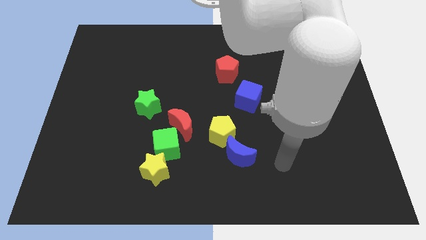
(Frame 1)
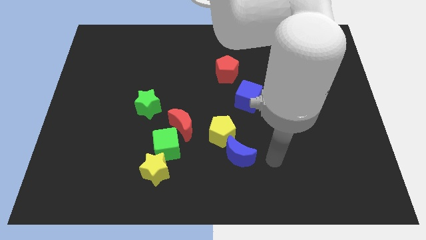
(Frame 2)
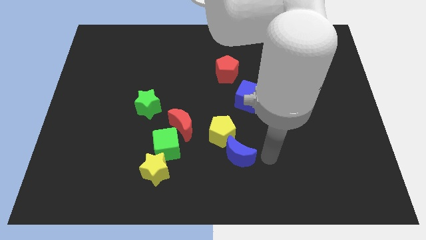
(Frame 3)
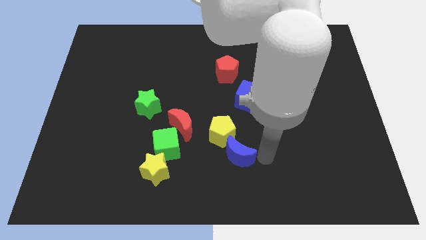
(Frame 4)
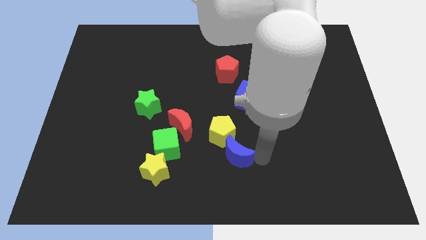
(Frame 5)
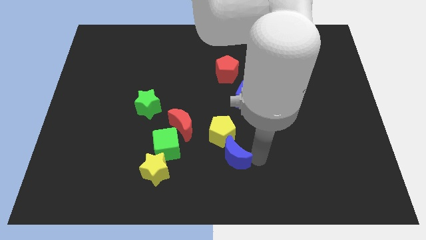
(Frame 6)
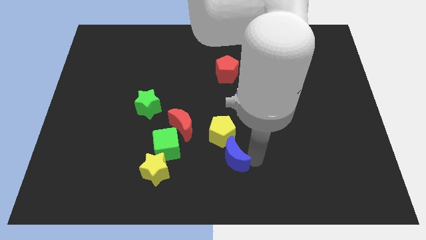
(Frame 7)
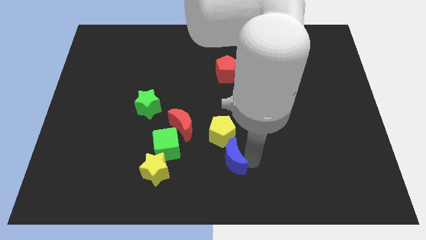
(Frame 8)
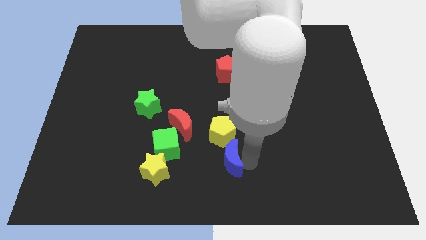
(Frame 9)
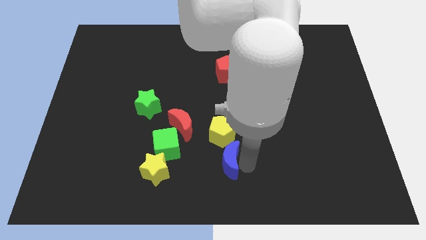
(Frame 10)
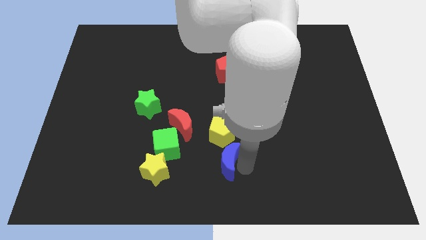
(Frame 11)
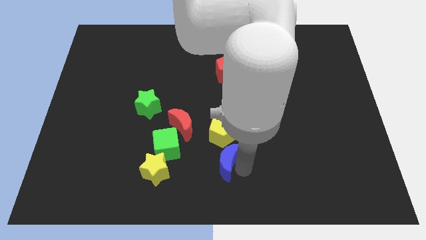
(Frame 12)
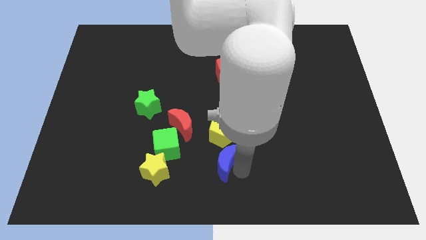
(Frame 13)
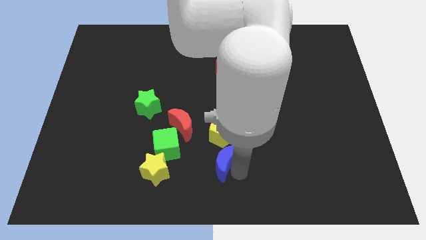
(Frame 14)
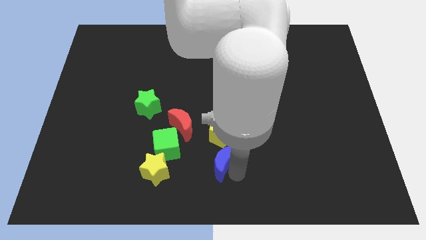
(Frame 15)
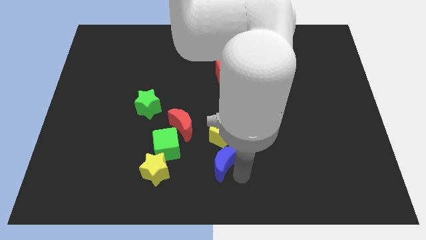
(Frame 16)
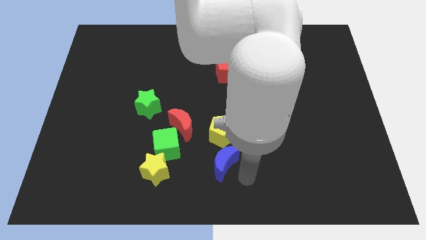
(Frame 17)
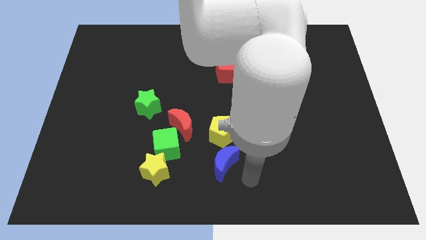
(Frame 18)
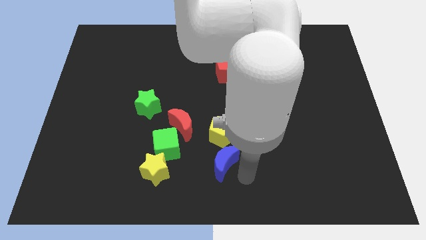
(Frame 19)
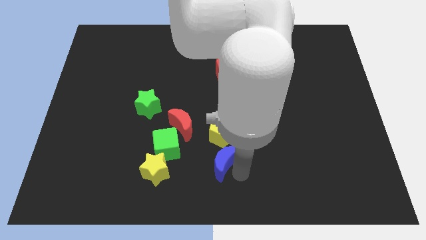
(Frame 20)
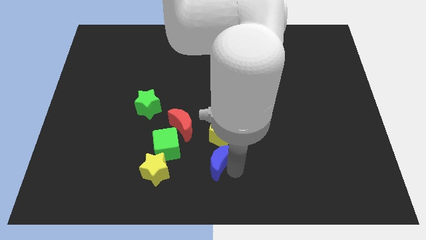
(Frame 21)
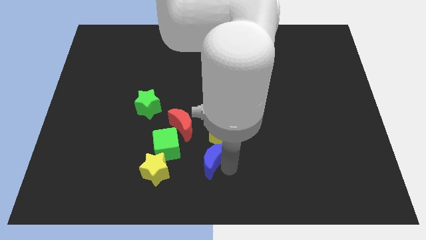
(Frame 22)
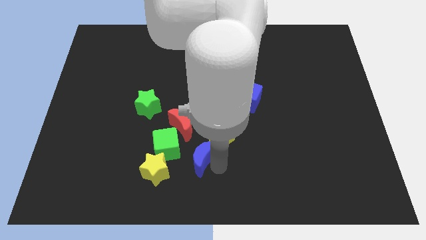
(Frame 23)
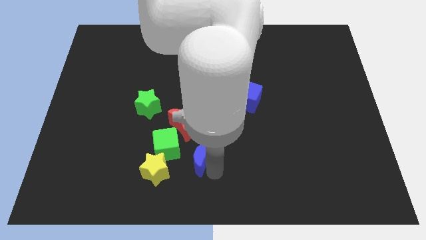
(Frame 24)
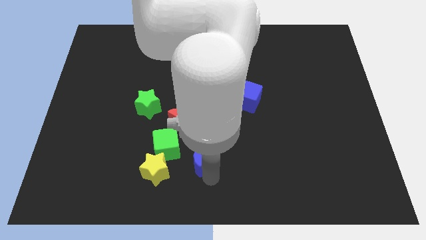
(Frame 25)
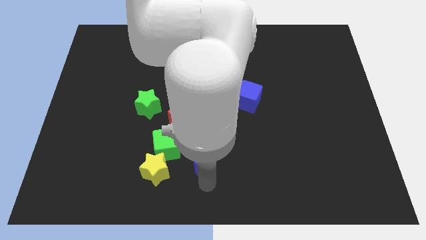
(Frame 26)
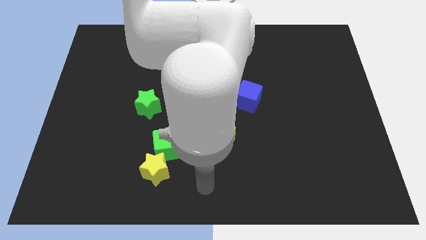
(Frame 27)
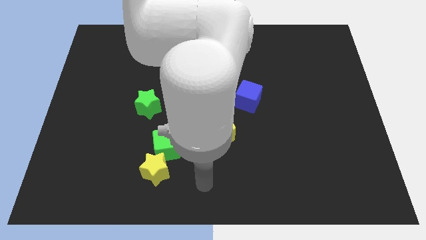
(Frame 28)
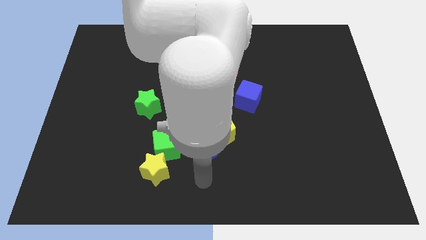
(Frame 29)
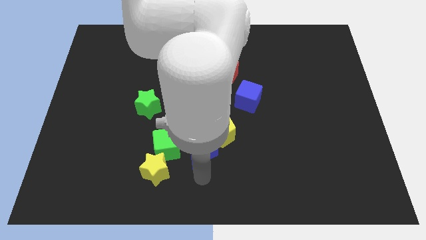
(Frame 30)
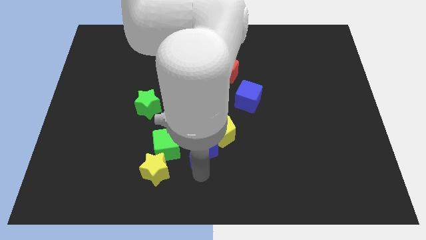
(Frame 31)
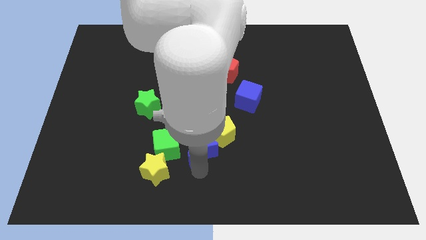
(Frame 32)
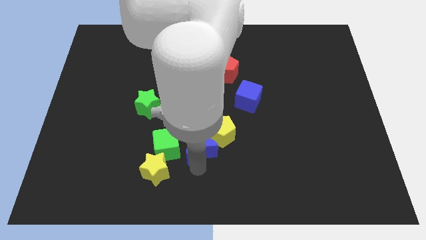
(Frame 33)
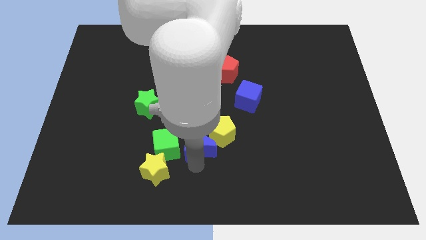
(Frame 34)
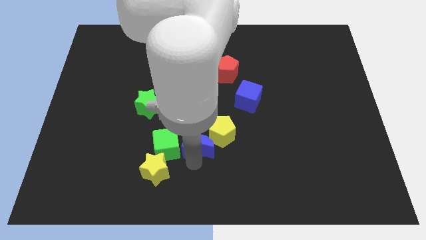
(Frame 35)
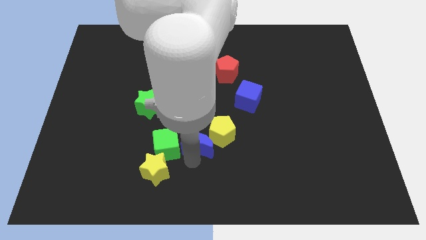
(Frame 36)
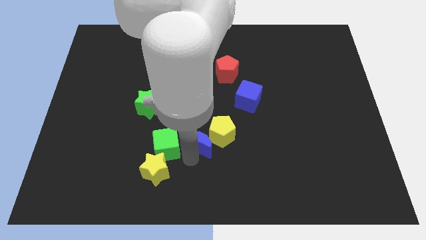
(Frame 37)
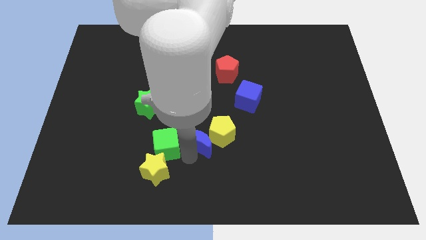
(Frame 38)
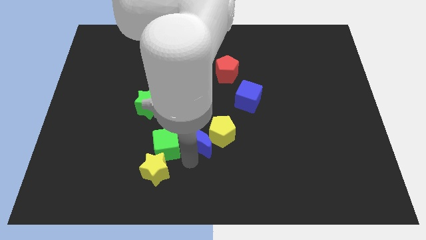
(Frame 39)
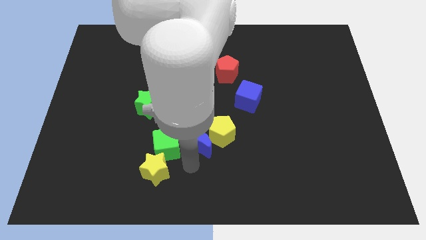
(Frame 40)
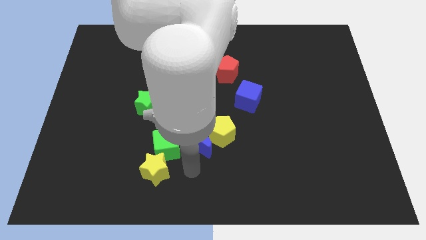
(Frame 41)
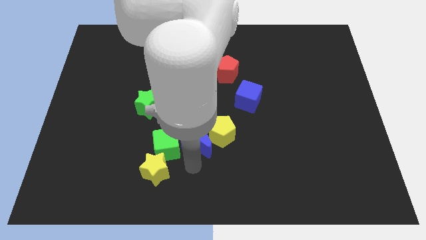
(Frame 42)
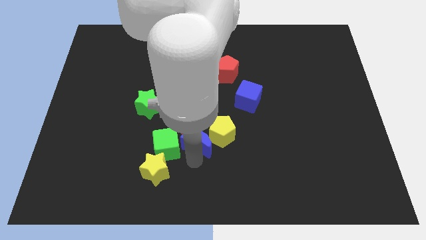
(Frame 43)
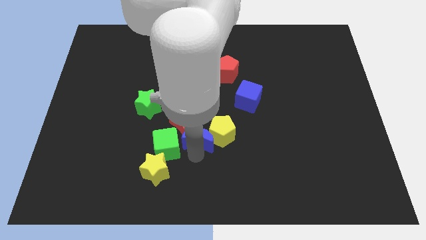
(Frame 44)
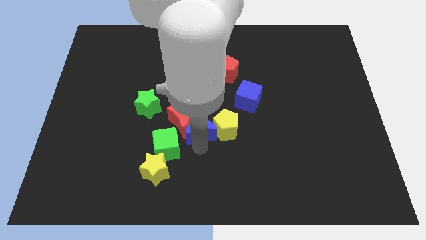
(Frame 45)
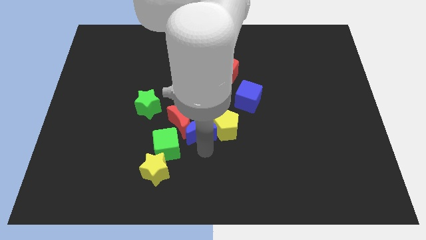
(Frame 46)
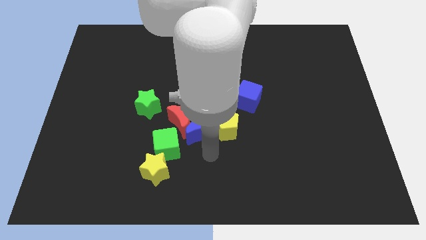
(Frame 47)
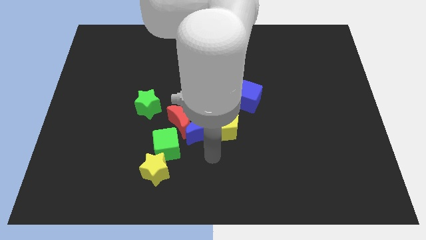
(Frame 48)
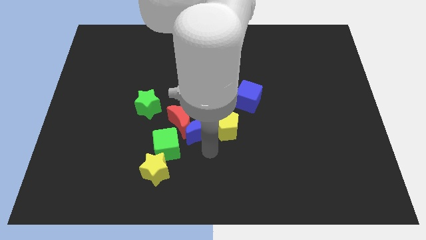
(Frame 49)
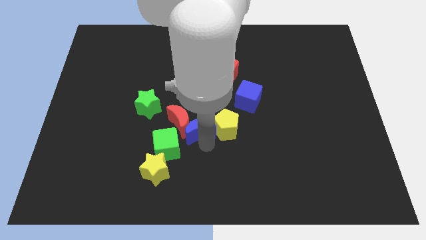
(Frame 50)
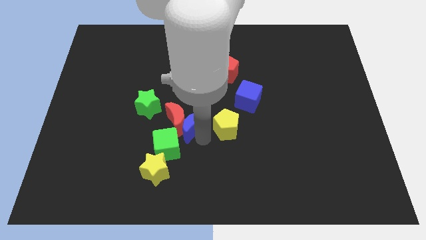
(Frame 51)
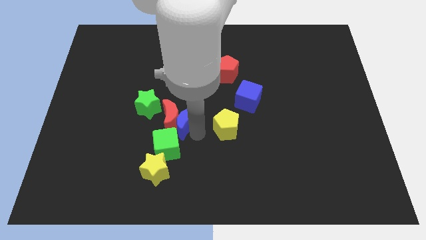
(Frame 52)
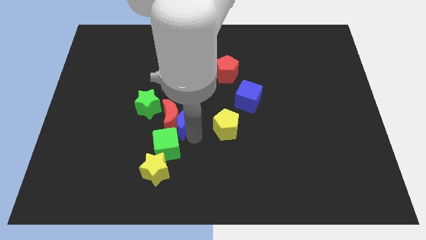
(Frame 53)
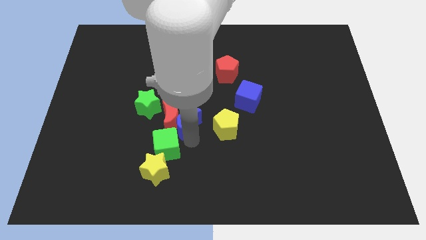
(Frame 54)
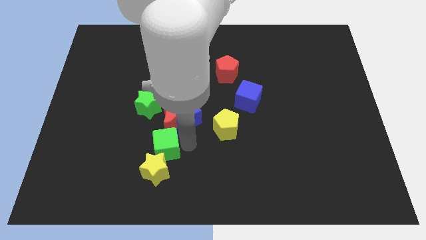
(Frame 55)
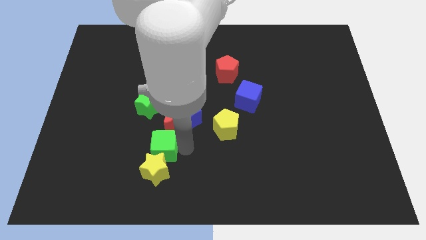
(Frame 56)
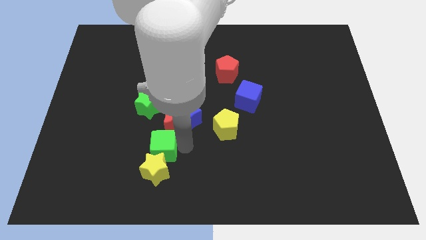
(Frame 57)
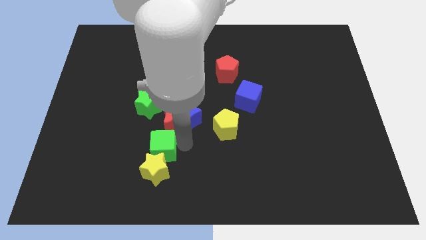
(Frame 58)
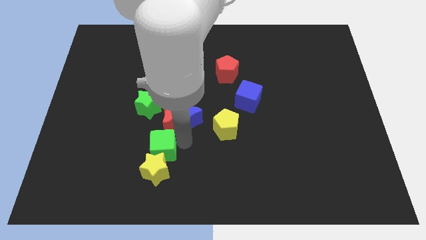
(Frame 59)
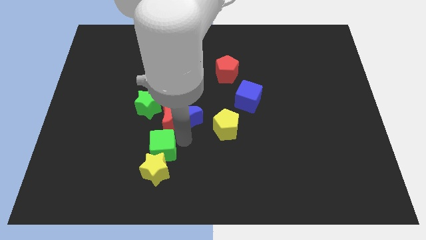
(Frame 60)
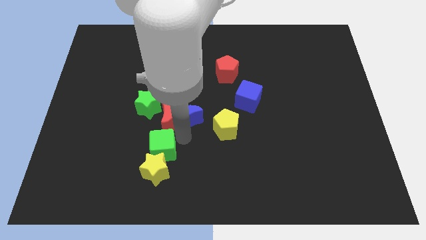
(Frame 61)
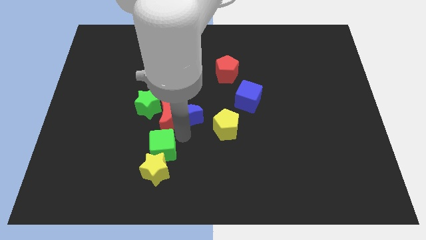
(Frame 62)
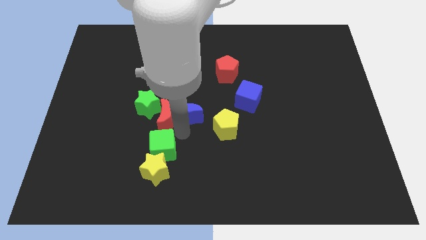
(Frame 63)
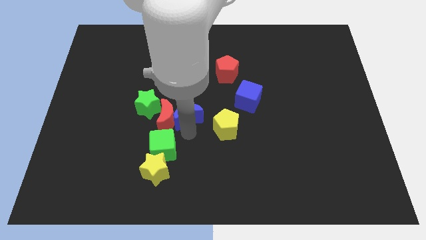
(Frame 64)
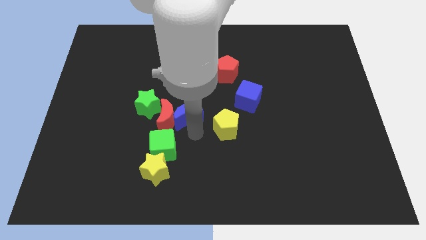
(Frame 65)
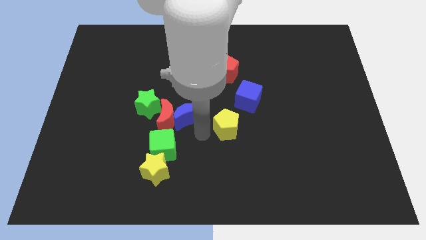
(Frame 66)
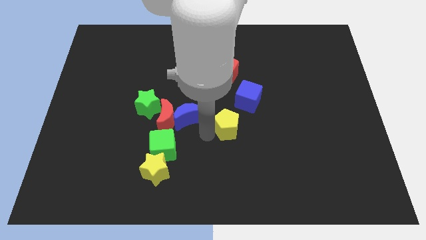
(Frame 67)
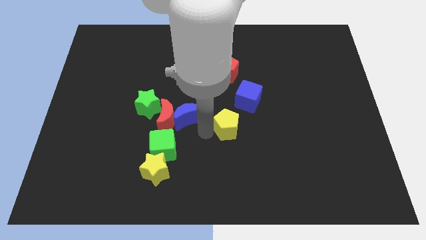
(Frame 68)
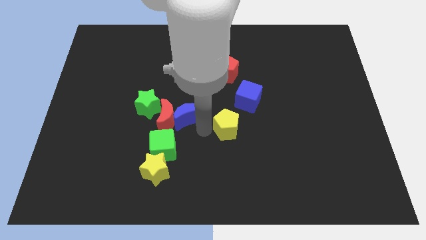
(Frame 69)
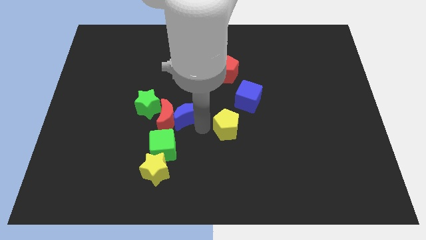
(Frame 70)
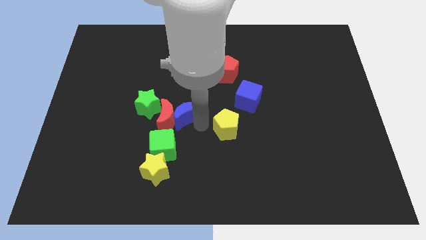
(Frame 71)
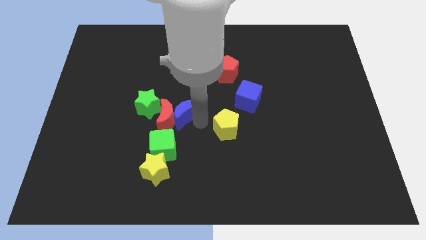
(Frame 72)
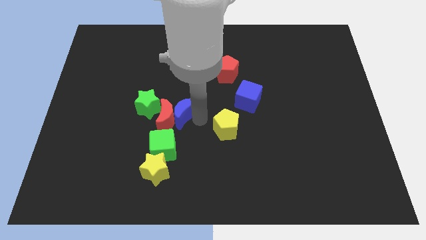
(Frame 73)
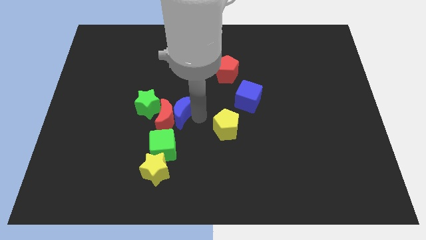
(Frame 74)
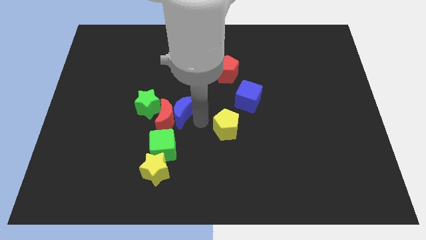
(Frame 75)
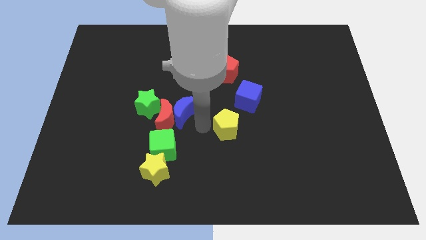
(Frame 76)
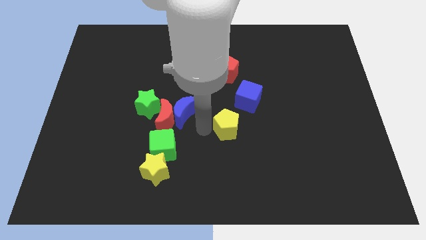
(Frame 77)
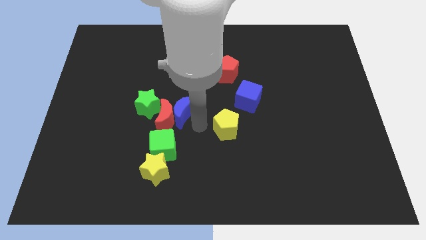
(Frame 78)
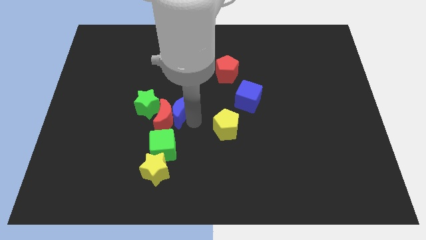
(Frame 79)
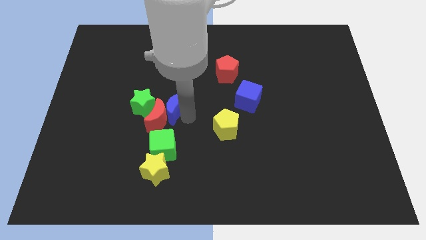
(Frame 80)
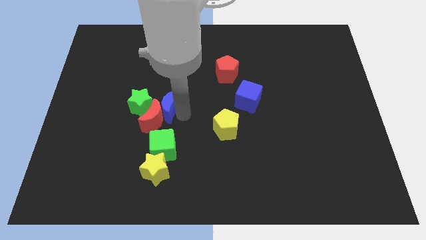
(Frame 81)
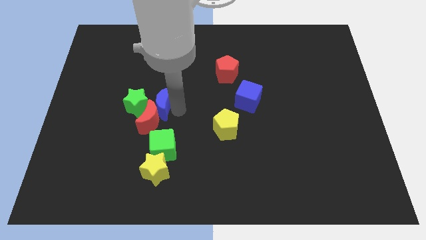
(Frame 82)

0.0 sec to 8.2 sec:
slide the blue moon towards the green star
